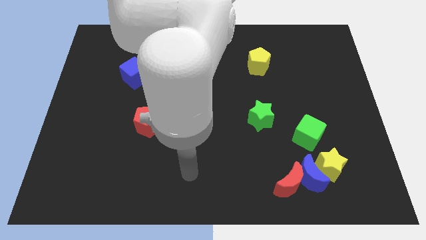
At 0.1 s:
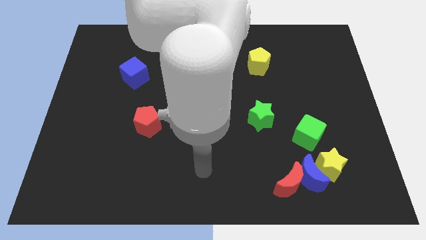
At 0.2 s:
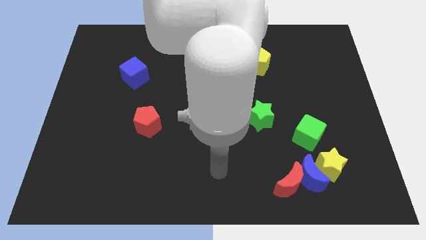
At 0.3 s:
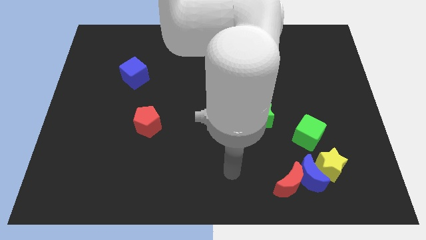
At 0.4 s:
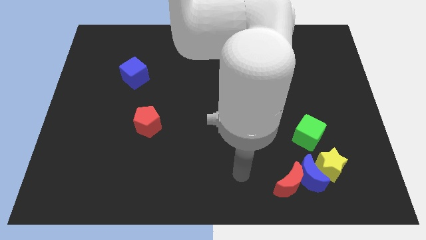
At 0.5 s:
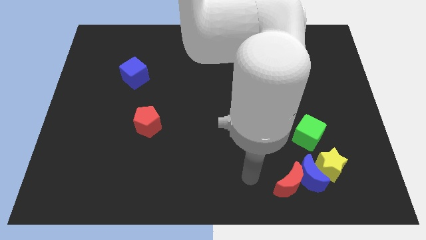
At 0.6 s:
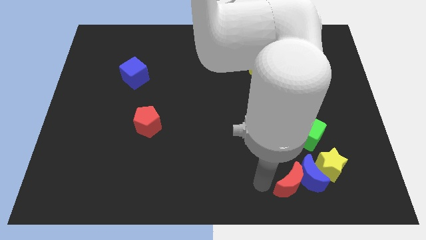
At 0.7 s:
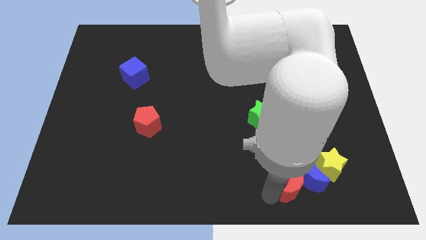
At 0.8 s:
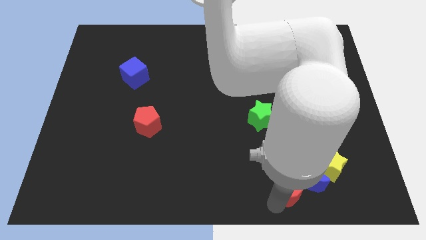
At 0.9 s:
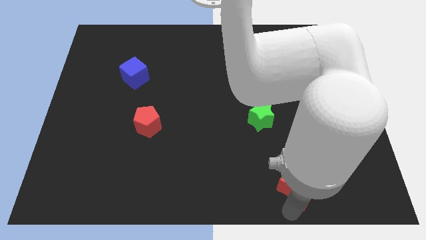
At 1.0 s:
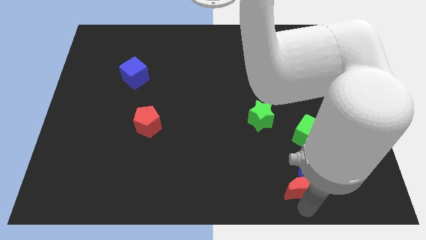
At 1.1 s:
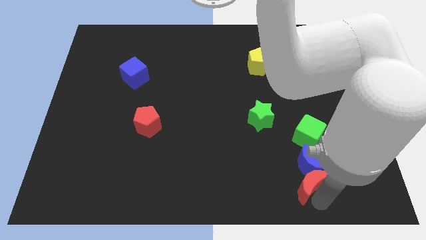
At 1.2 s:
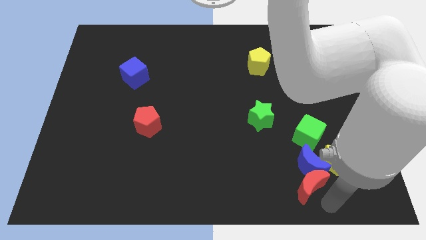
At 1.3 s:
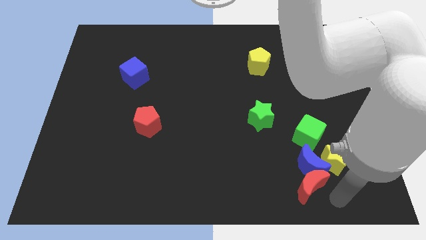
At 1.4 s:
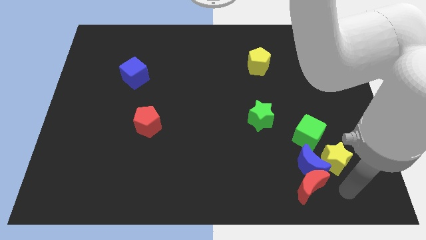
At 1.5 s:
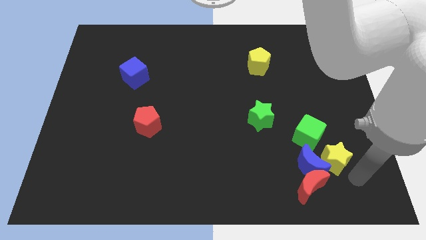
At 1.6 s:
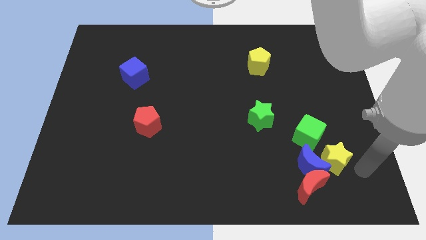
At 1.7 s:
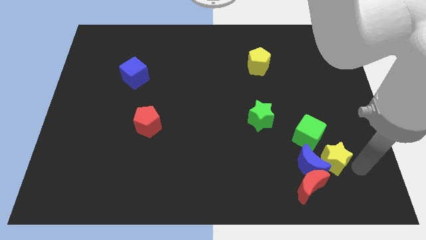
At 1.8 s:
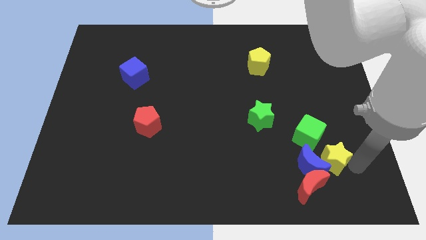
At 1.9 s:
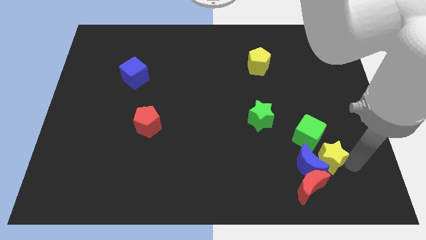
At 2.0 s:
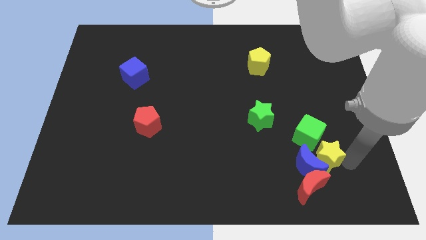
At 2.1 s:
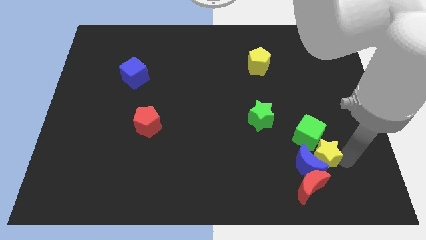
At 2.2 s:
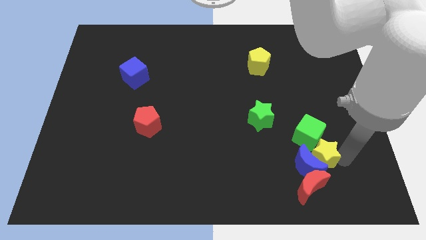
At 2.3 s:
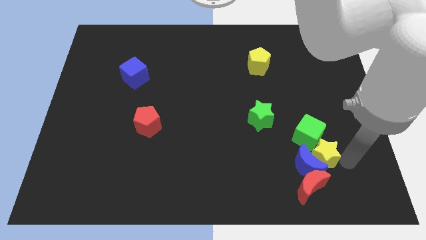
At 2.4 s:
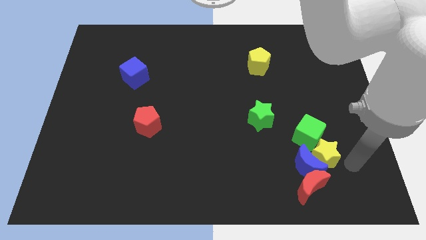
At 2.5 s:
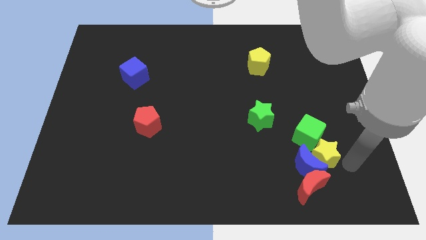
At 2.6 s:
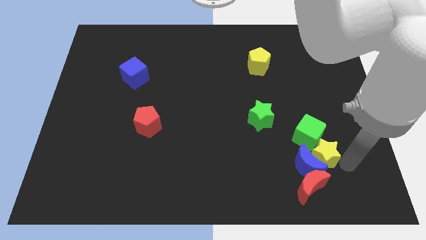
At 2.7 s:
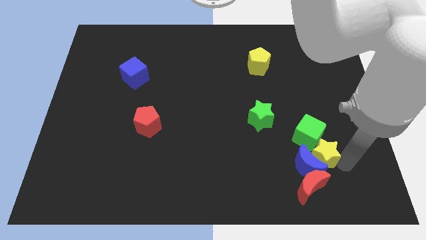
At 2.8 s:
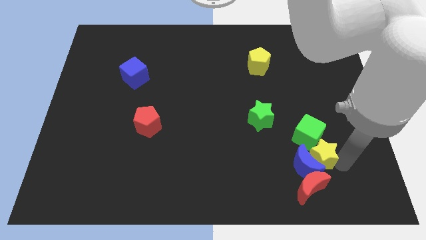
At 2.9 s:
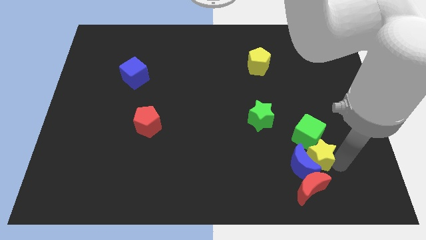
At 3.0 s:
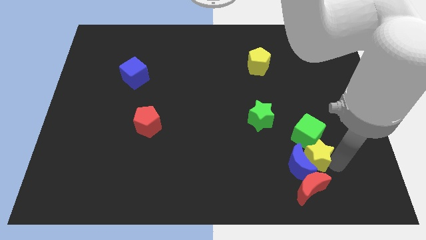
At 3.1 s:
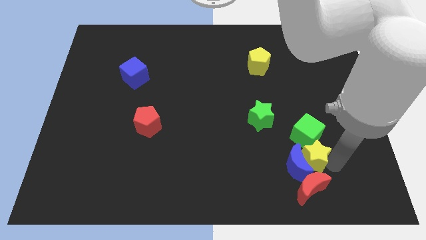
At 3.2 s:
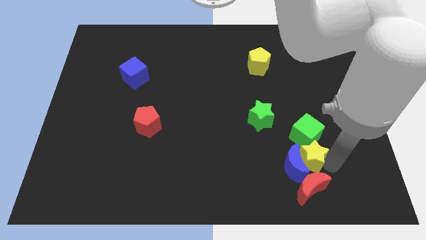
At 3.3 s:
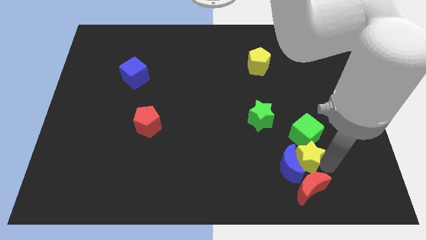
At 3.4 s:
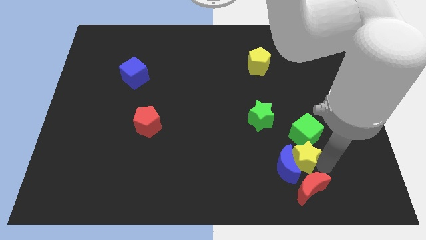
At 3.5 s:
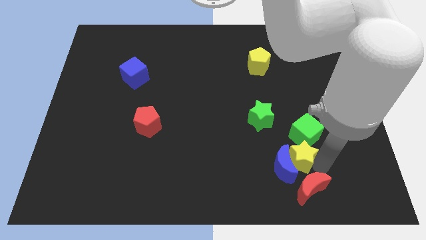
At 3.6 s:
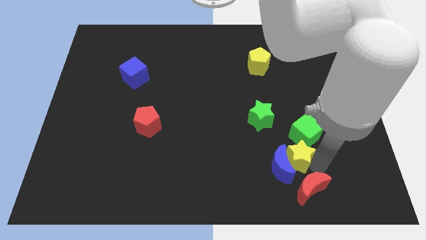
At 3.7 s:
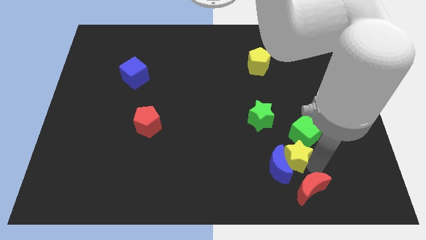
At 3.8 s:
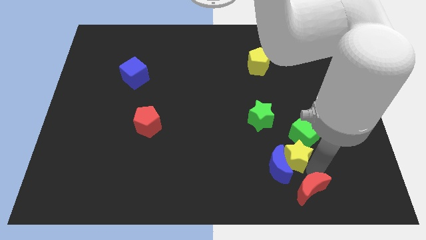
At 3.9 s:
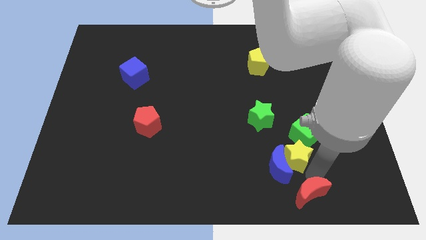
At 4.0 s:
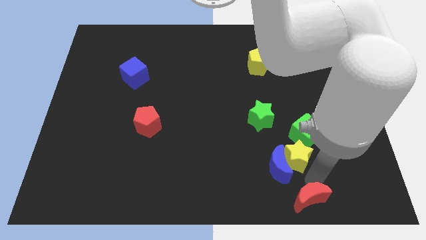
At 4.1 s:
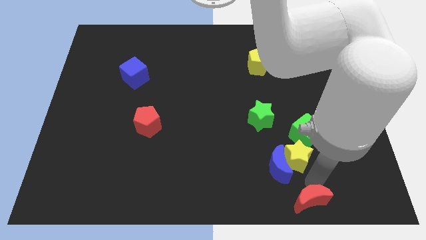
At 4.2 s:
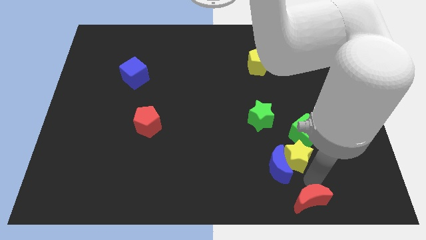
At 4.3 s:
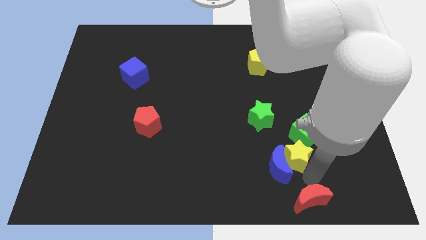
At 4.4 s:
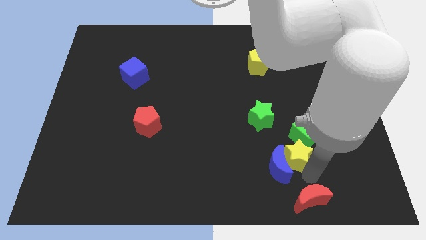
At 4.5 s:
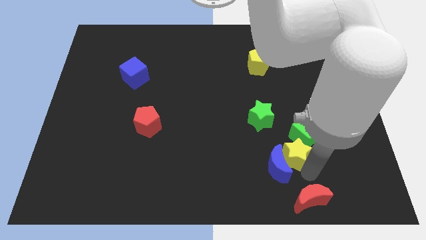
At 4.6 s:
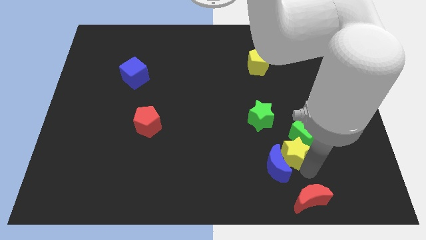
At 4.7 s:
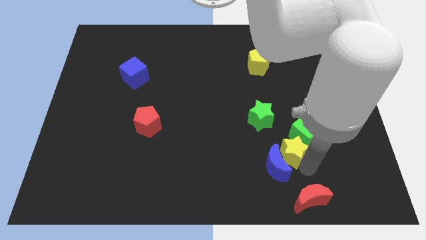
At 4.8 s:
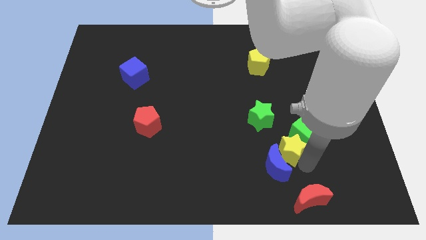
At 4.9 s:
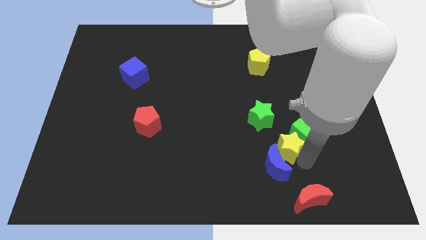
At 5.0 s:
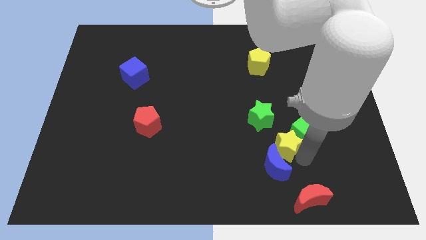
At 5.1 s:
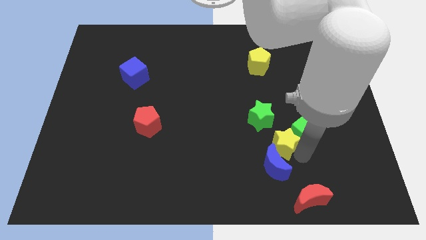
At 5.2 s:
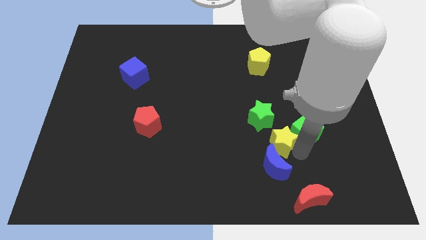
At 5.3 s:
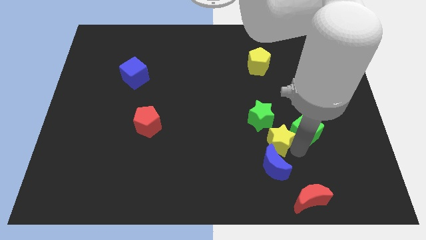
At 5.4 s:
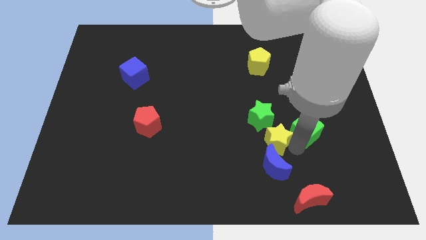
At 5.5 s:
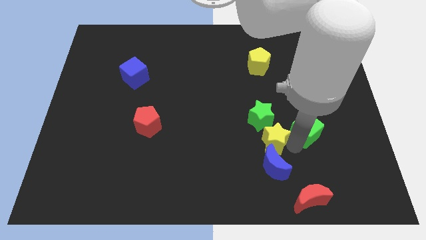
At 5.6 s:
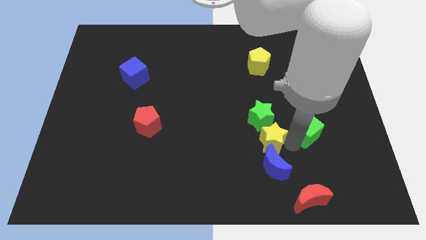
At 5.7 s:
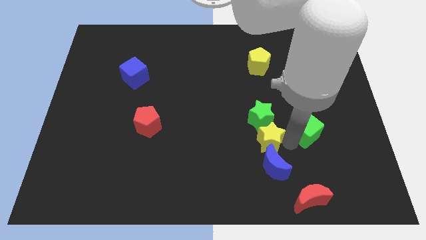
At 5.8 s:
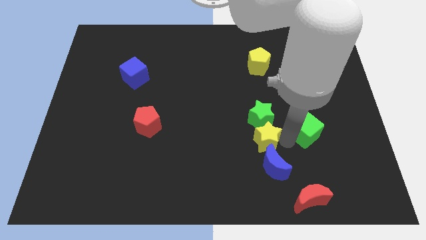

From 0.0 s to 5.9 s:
slide the yellow star to the bottom left of the green star
